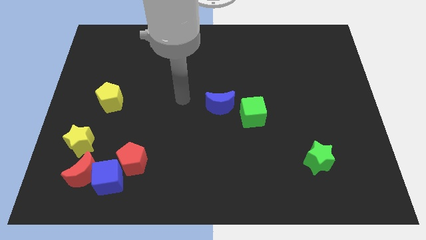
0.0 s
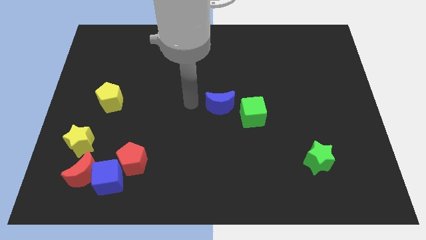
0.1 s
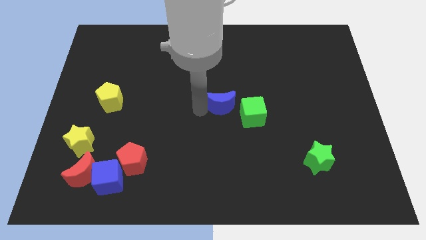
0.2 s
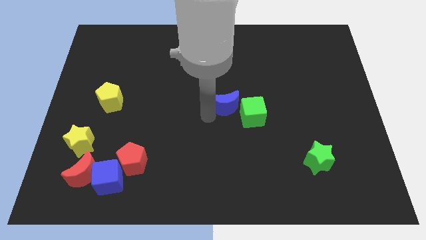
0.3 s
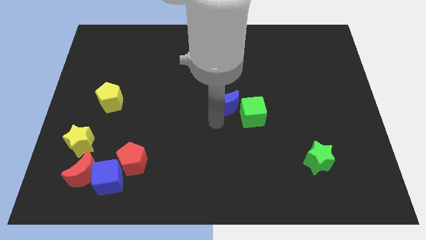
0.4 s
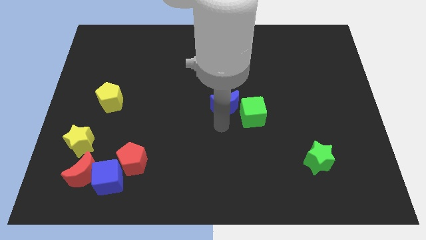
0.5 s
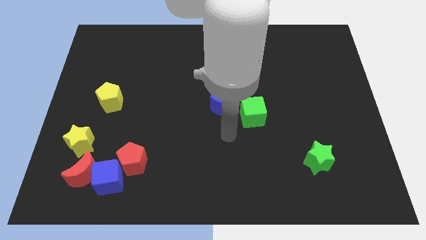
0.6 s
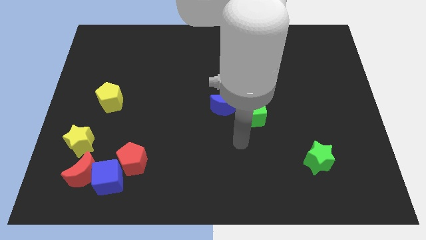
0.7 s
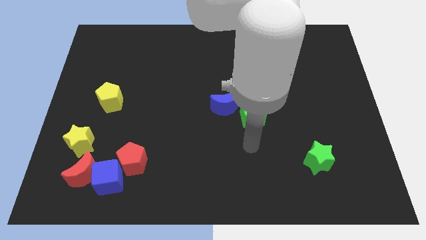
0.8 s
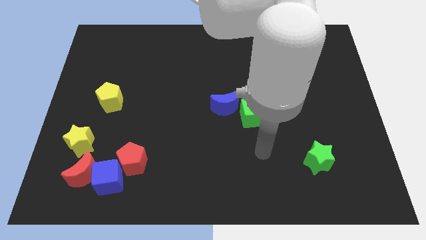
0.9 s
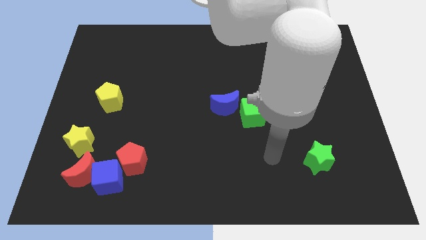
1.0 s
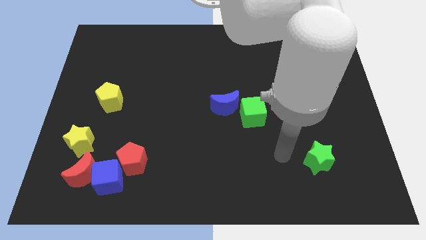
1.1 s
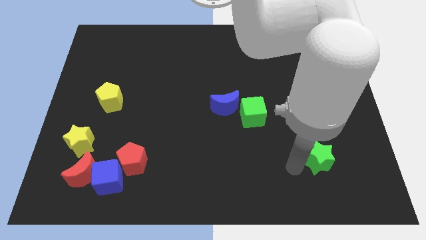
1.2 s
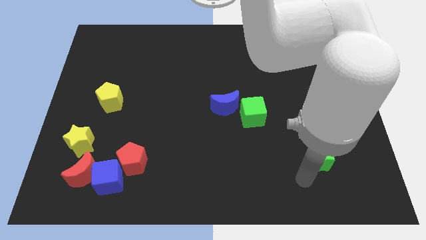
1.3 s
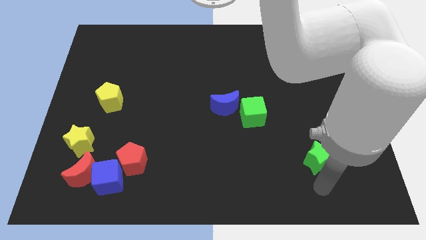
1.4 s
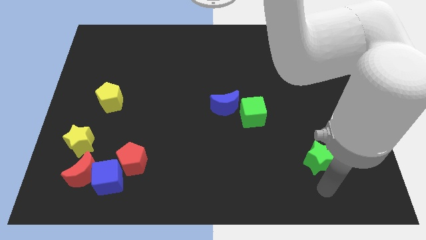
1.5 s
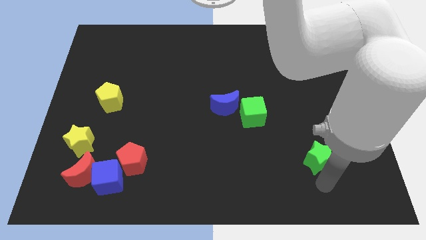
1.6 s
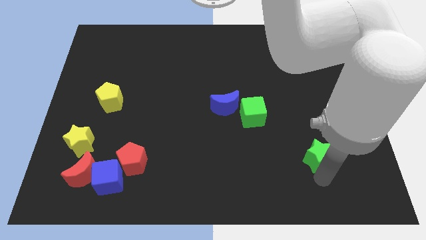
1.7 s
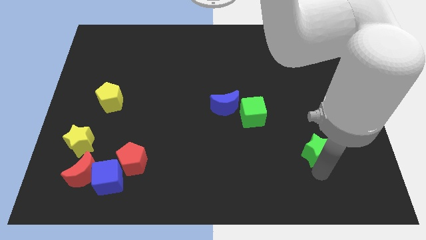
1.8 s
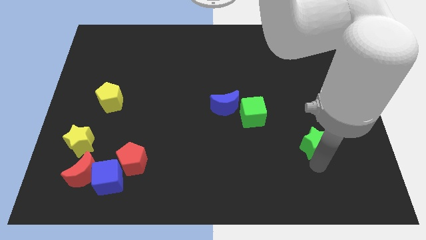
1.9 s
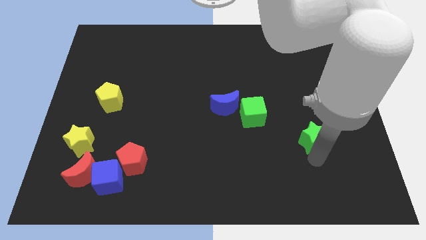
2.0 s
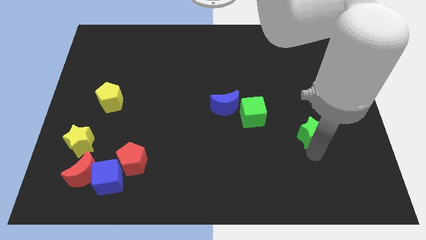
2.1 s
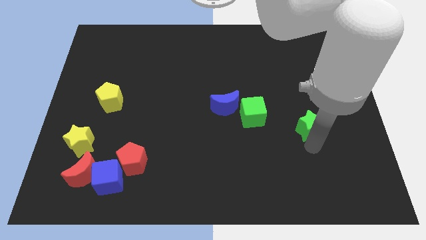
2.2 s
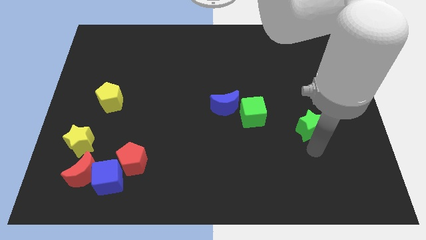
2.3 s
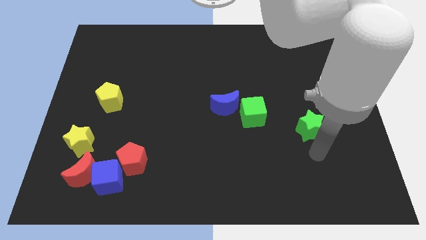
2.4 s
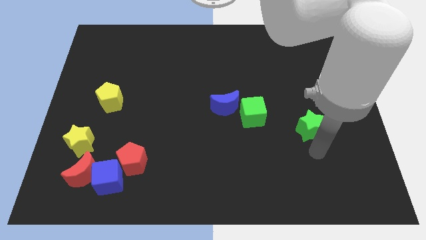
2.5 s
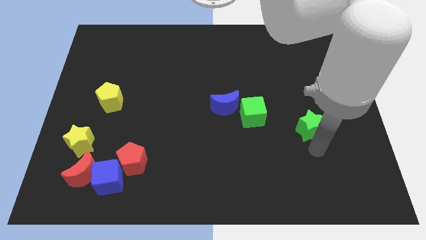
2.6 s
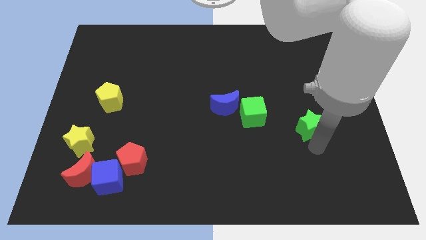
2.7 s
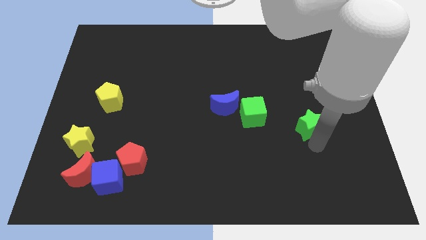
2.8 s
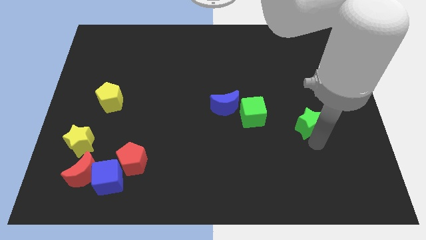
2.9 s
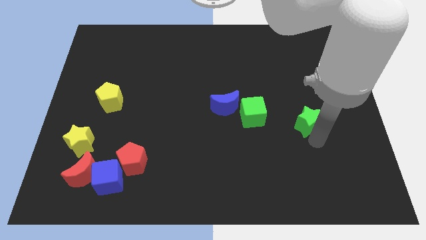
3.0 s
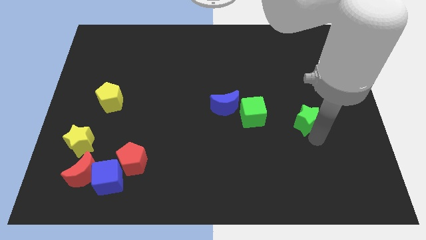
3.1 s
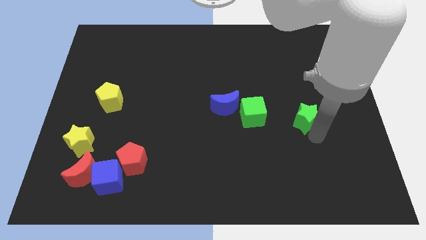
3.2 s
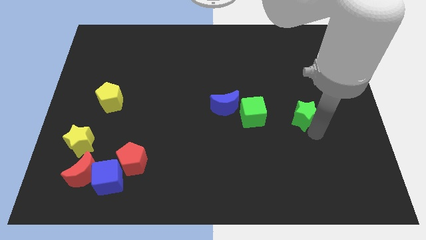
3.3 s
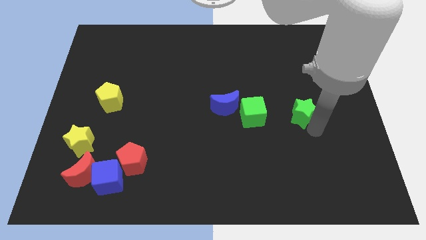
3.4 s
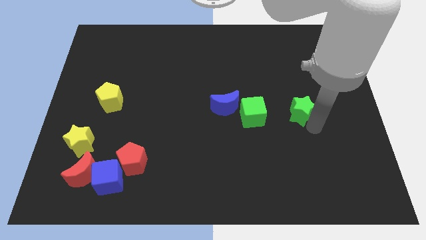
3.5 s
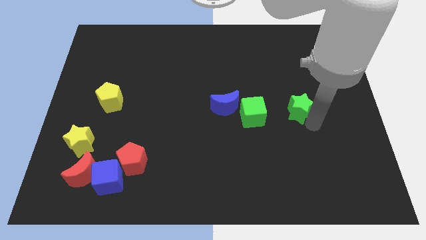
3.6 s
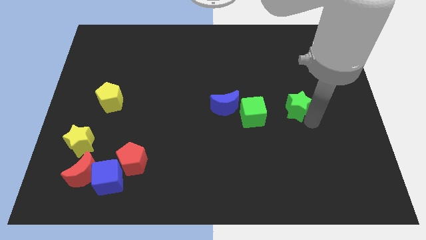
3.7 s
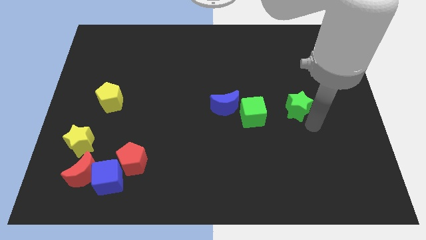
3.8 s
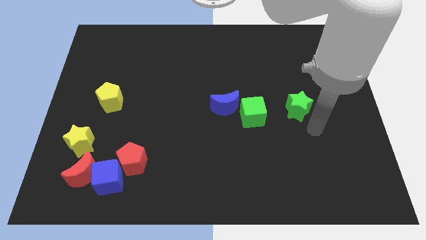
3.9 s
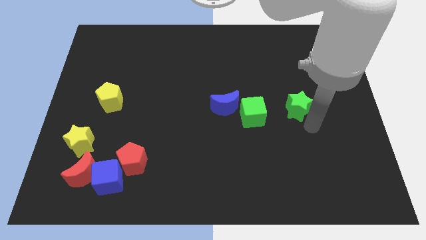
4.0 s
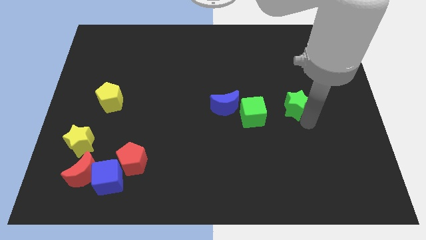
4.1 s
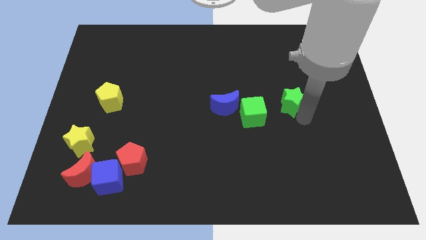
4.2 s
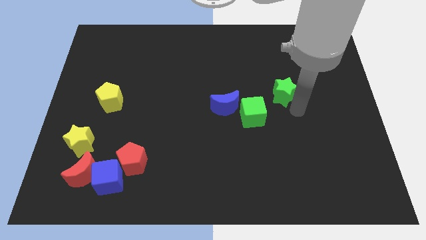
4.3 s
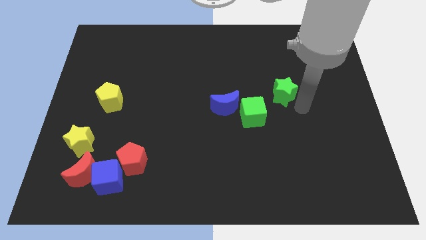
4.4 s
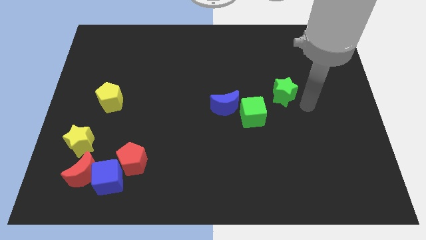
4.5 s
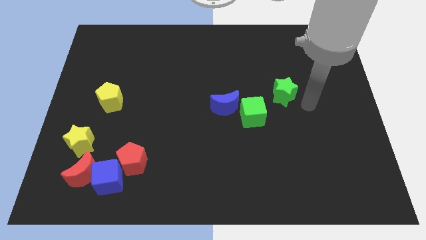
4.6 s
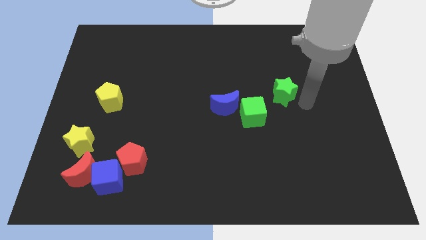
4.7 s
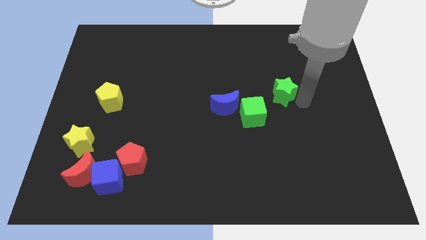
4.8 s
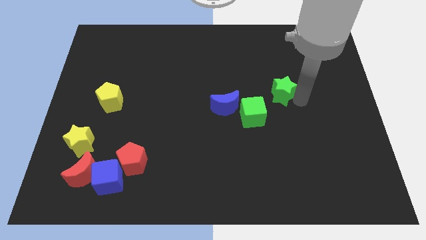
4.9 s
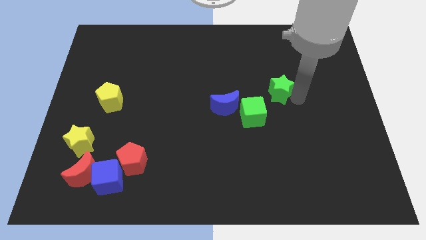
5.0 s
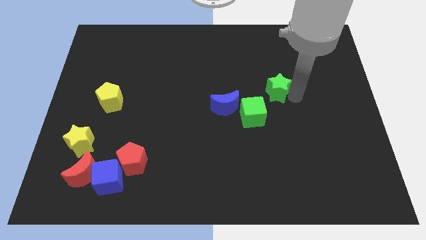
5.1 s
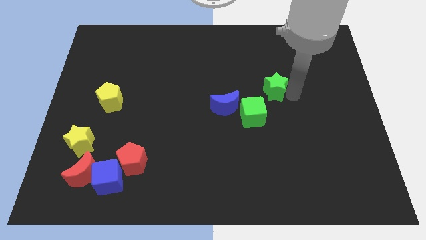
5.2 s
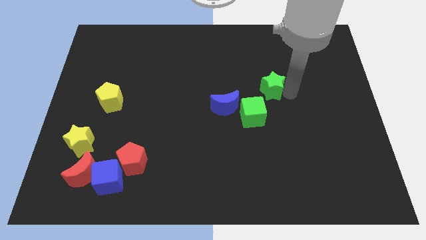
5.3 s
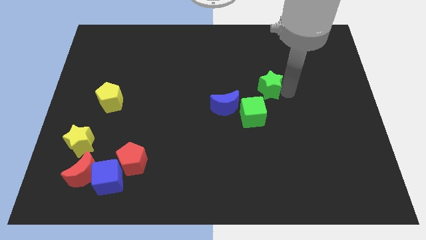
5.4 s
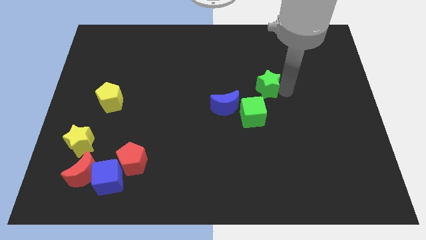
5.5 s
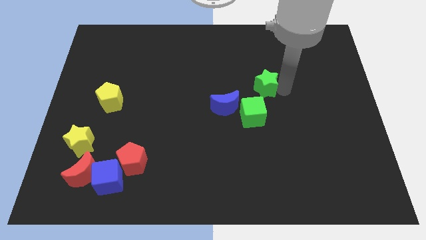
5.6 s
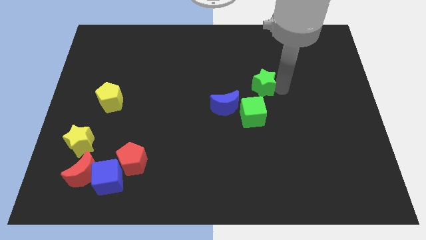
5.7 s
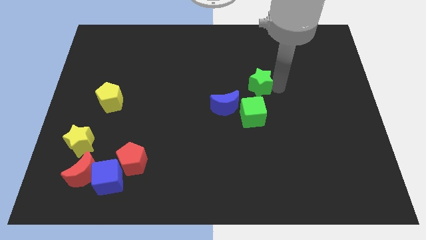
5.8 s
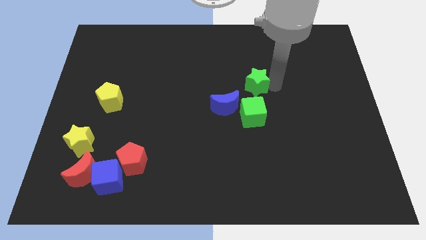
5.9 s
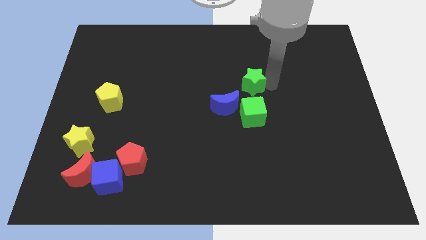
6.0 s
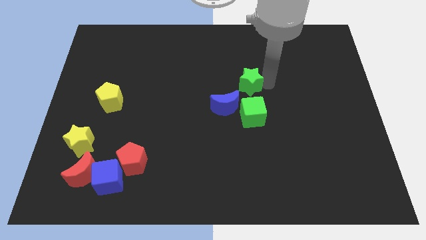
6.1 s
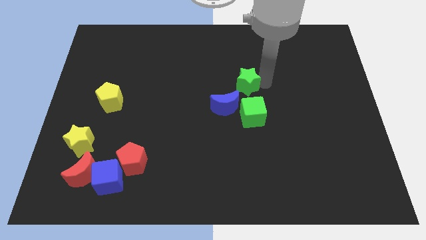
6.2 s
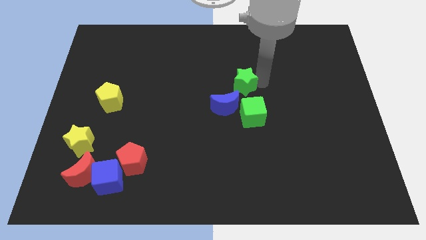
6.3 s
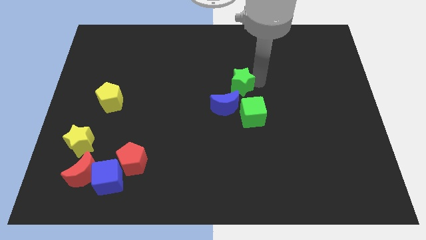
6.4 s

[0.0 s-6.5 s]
push the green star diagonally up and to the left of the green cube

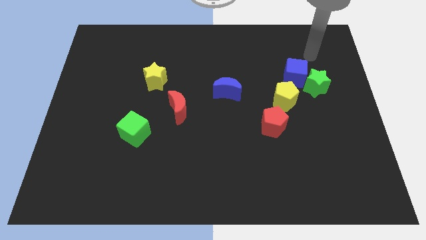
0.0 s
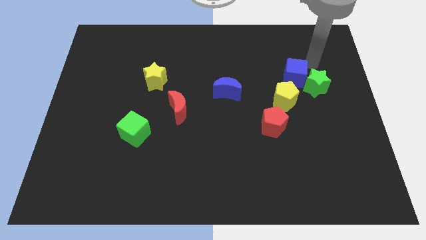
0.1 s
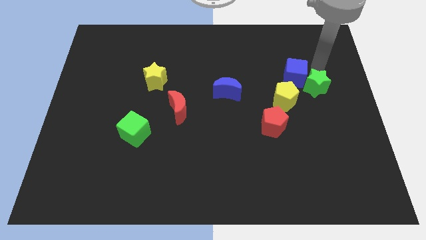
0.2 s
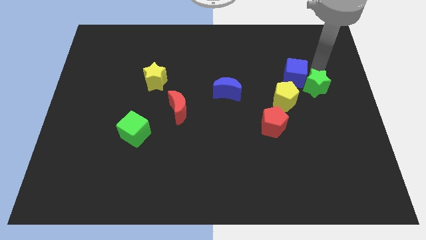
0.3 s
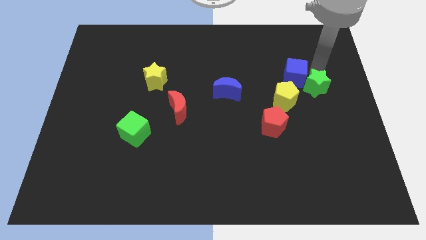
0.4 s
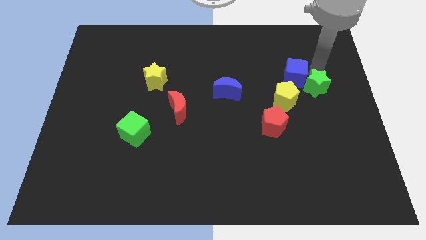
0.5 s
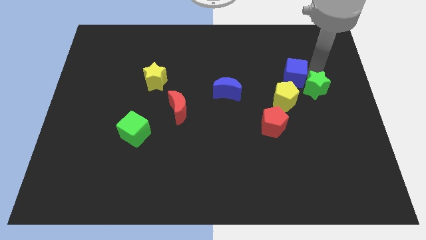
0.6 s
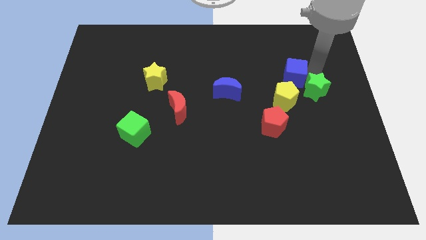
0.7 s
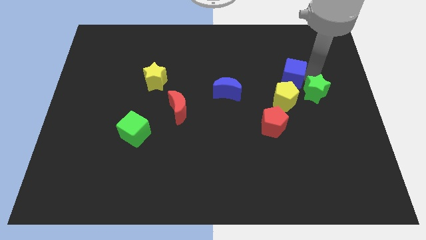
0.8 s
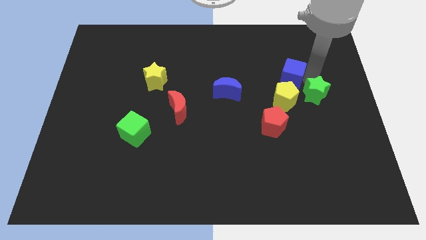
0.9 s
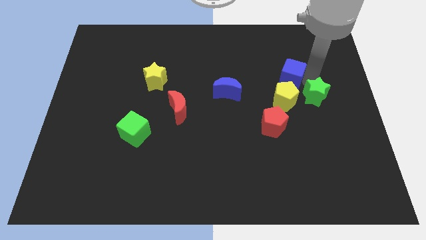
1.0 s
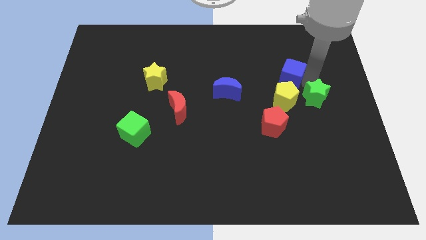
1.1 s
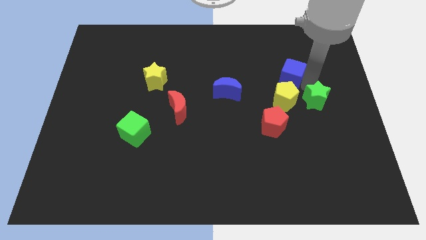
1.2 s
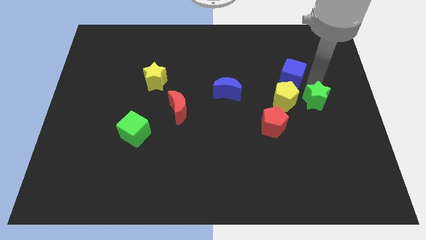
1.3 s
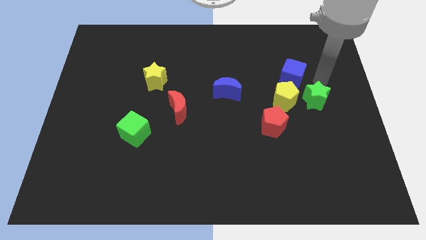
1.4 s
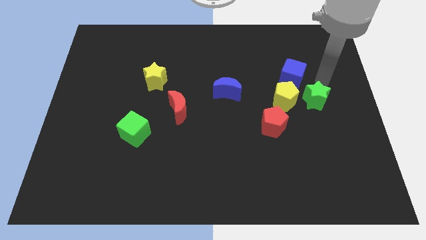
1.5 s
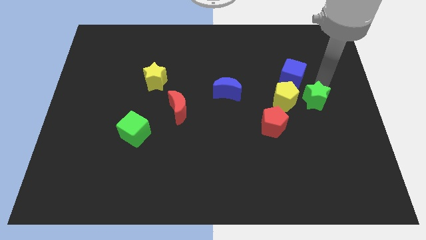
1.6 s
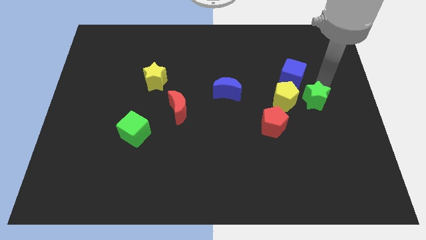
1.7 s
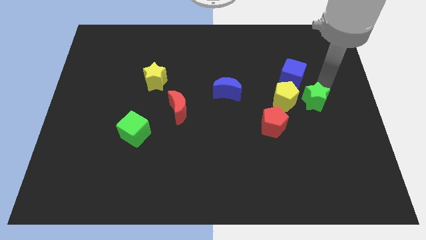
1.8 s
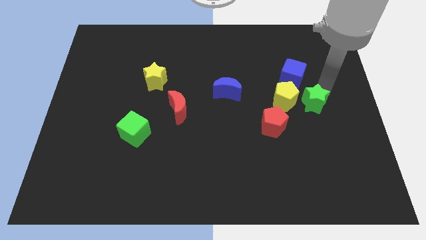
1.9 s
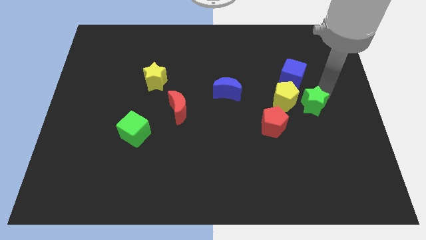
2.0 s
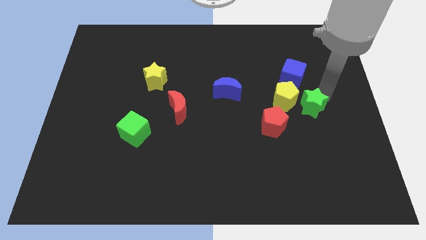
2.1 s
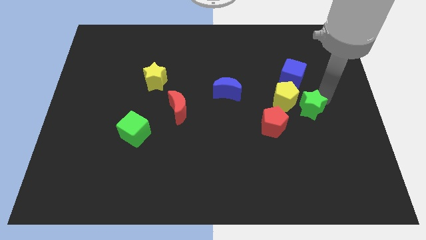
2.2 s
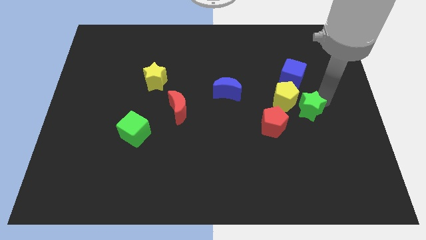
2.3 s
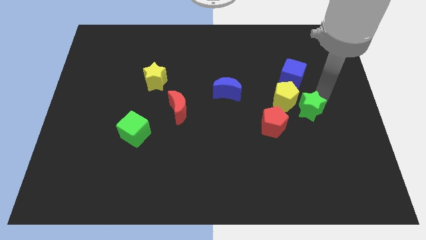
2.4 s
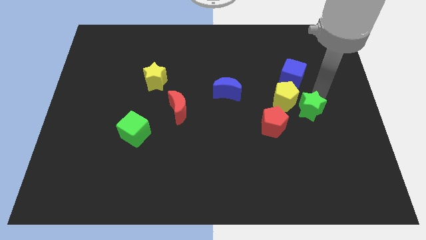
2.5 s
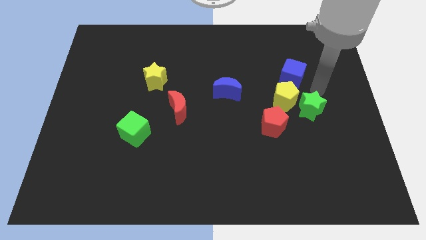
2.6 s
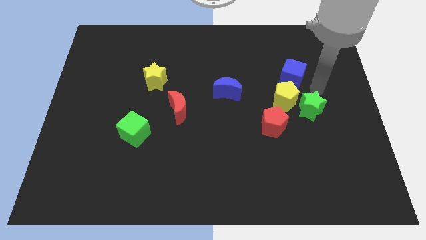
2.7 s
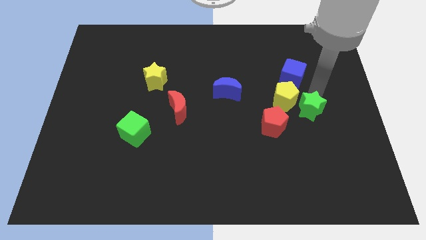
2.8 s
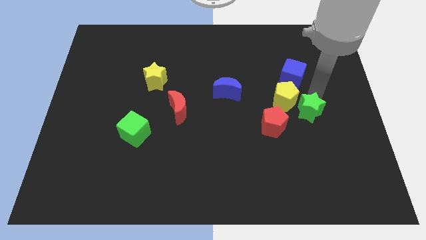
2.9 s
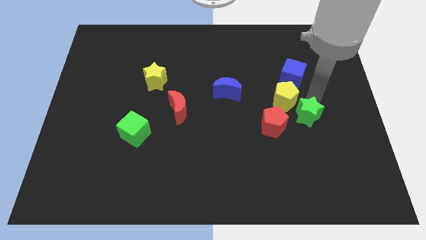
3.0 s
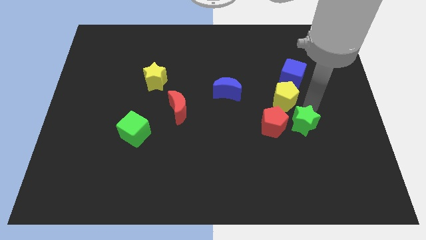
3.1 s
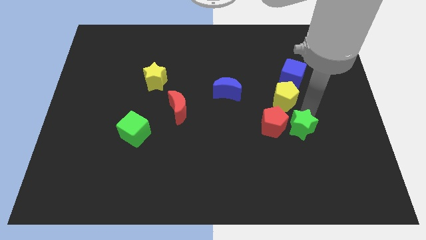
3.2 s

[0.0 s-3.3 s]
put the green star to the bottom right of the red pentagon
